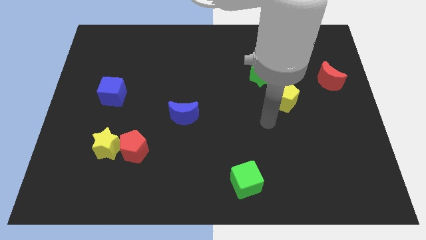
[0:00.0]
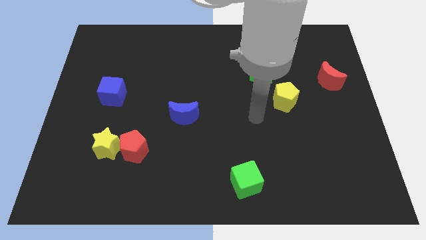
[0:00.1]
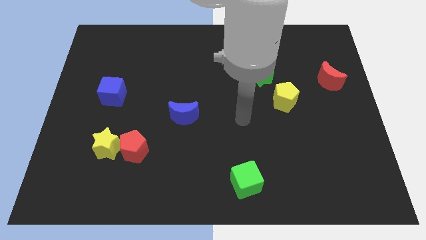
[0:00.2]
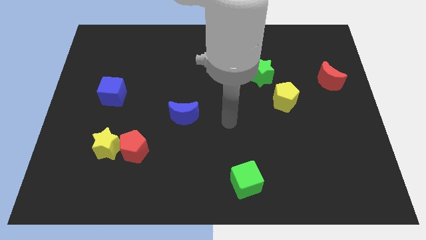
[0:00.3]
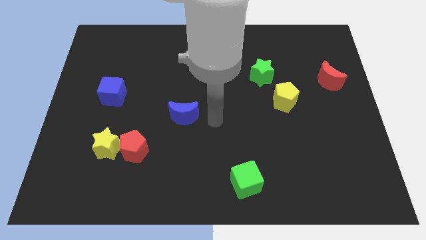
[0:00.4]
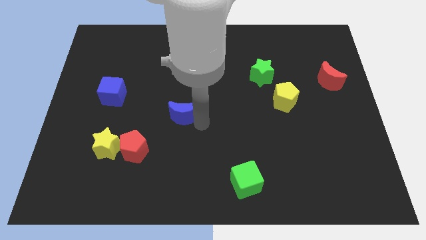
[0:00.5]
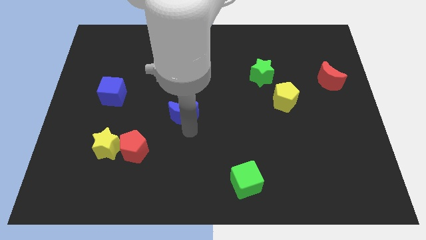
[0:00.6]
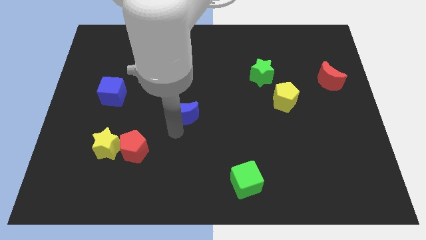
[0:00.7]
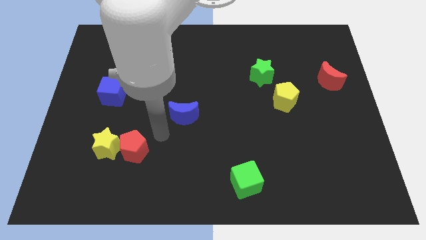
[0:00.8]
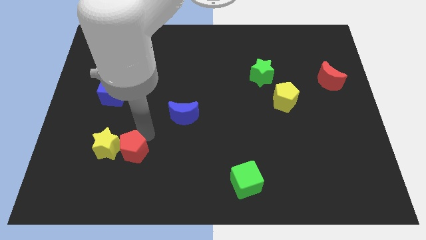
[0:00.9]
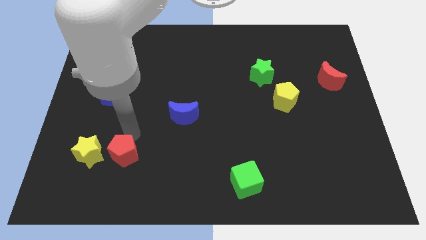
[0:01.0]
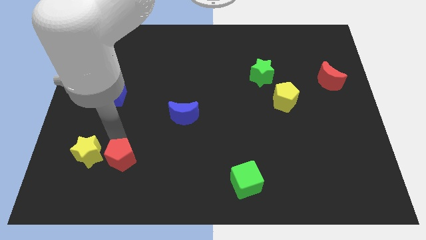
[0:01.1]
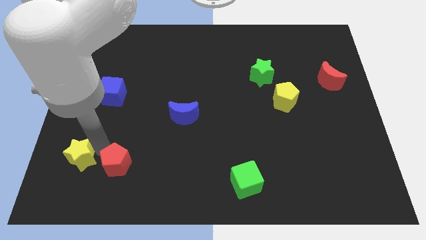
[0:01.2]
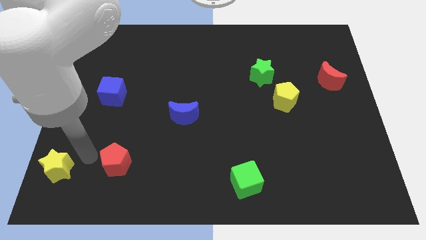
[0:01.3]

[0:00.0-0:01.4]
separate the red pentagon from the yellow star

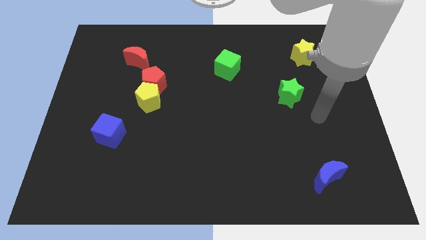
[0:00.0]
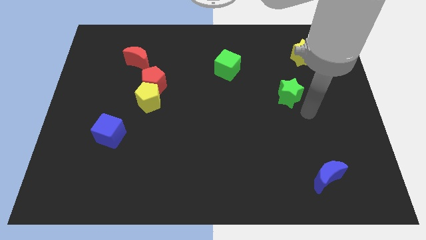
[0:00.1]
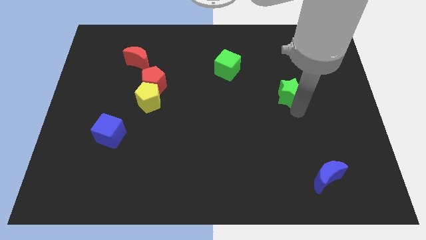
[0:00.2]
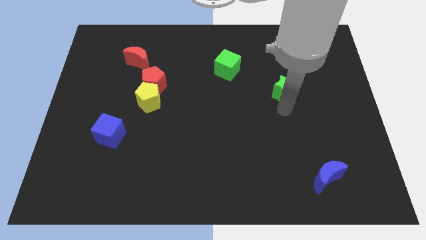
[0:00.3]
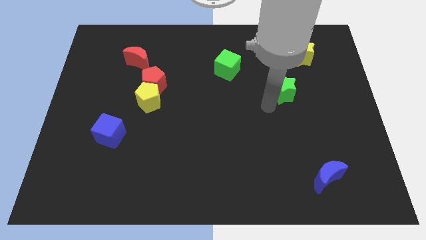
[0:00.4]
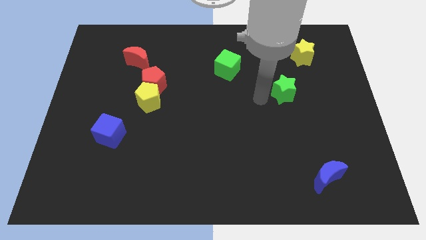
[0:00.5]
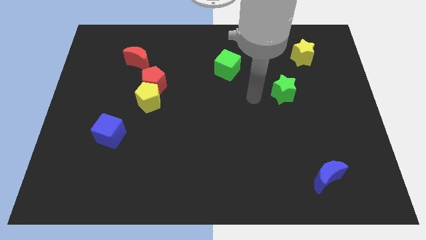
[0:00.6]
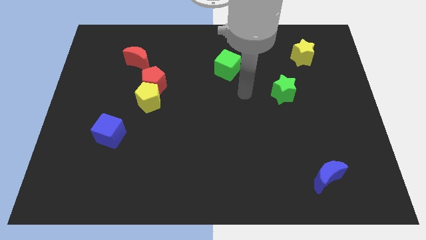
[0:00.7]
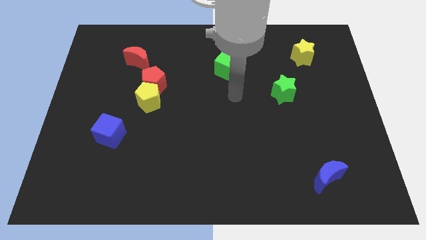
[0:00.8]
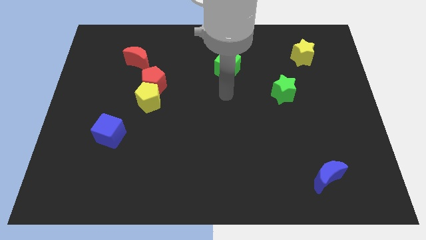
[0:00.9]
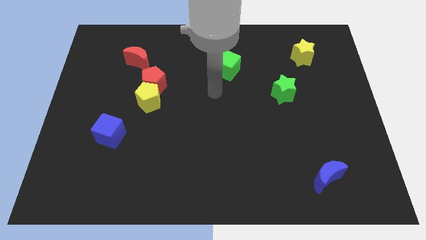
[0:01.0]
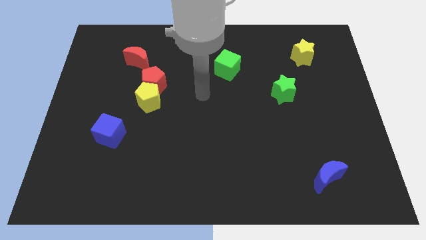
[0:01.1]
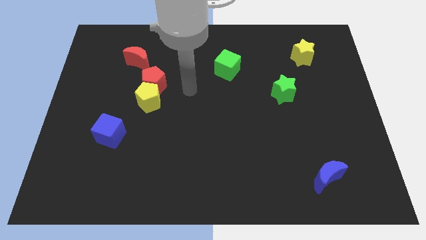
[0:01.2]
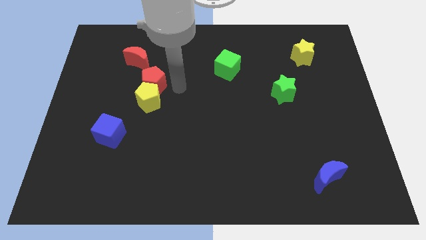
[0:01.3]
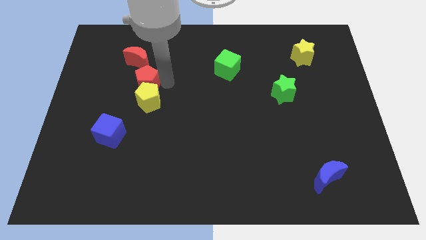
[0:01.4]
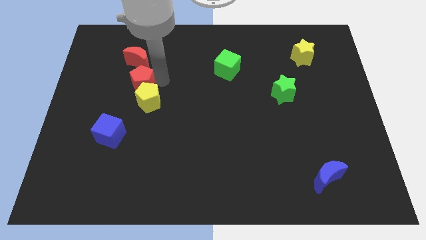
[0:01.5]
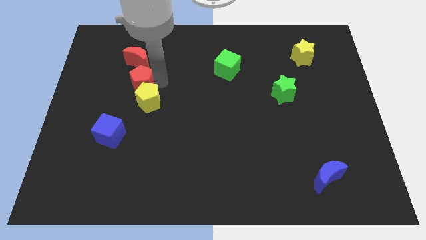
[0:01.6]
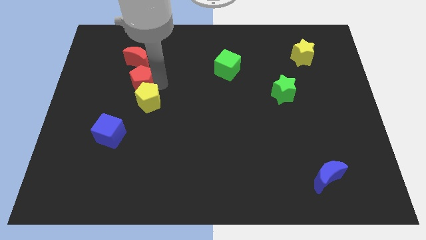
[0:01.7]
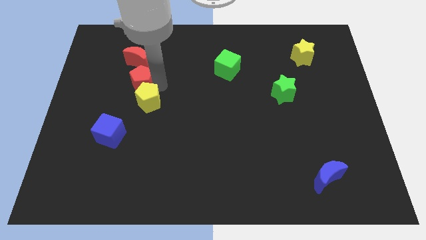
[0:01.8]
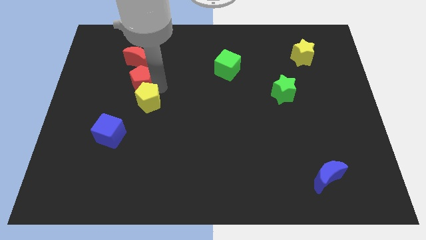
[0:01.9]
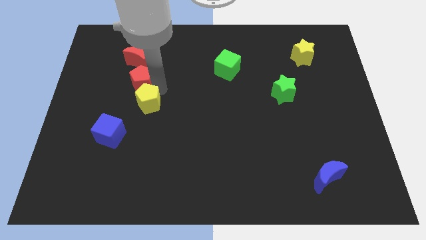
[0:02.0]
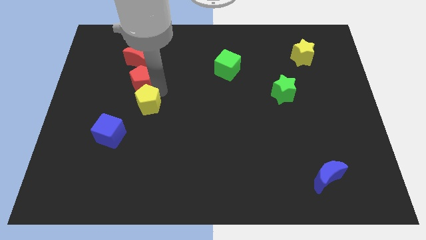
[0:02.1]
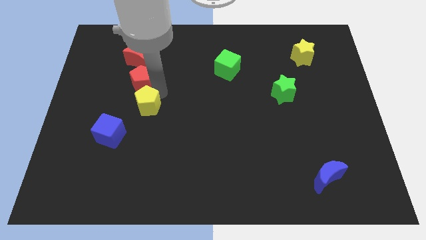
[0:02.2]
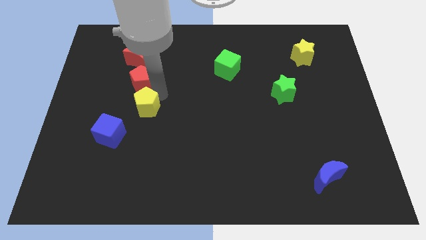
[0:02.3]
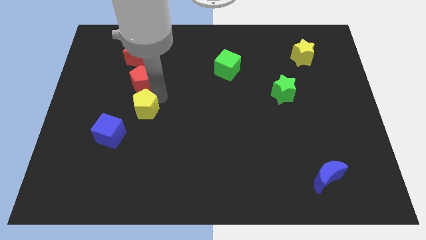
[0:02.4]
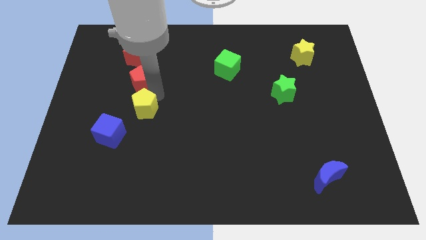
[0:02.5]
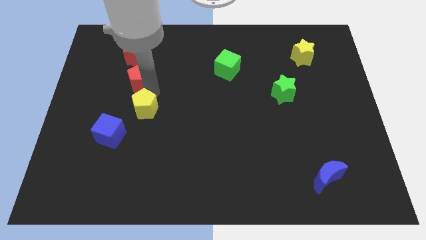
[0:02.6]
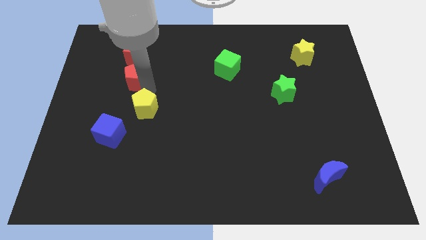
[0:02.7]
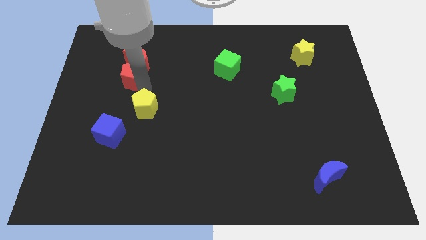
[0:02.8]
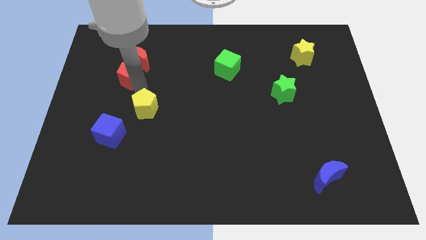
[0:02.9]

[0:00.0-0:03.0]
pull the yellow pentagon apart from the red pentagon

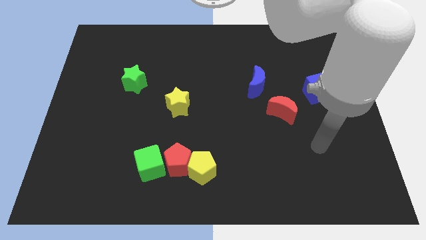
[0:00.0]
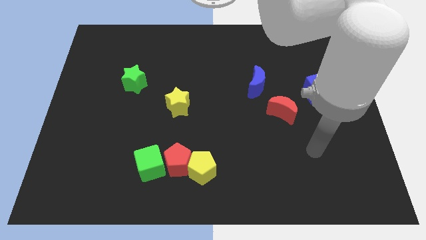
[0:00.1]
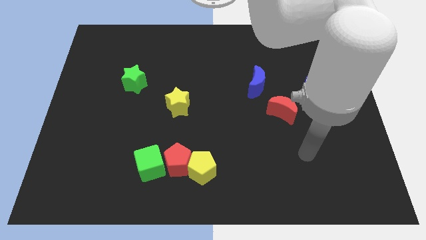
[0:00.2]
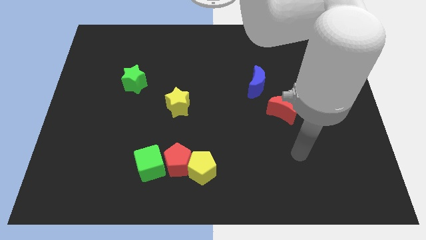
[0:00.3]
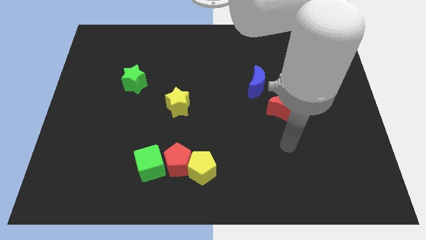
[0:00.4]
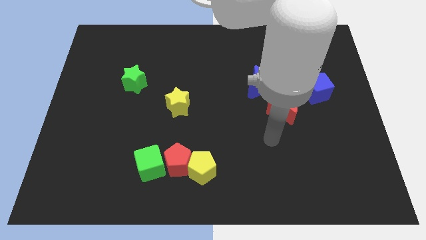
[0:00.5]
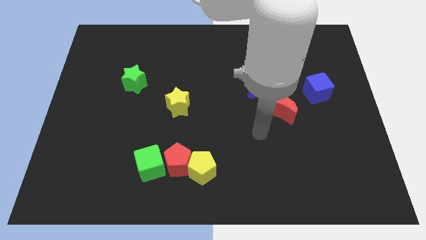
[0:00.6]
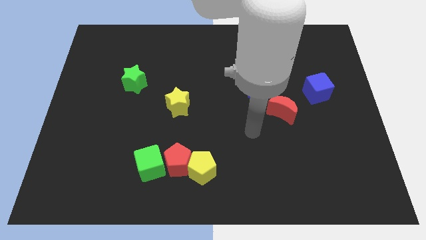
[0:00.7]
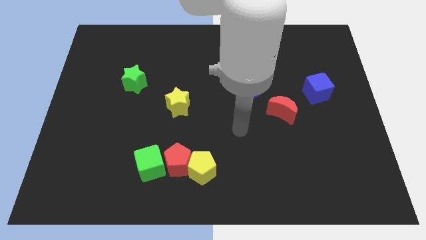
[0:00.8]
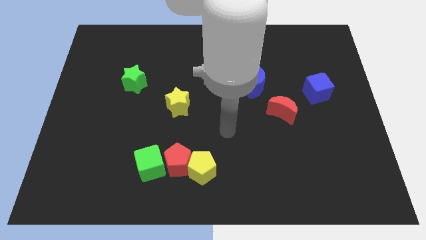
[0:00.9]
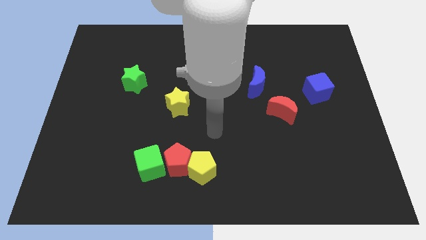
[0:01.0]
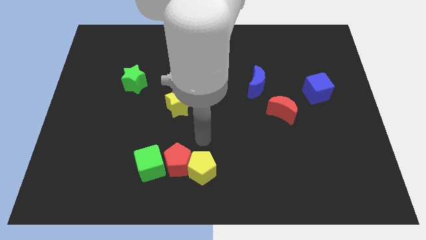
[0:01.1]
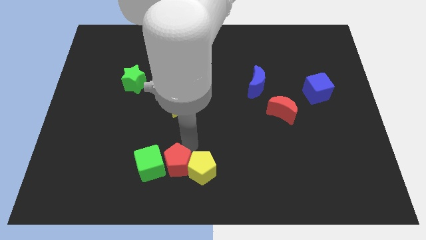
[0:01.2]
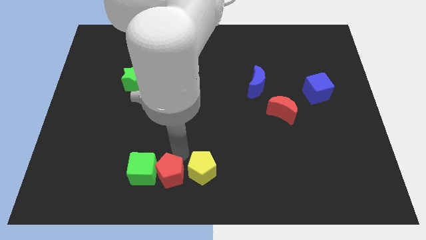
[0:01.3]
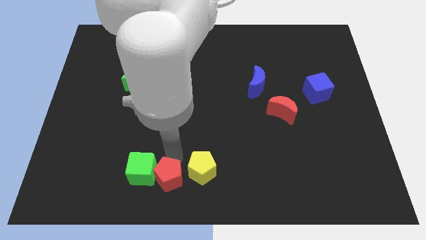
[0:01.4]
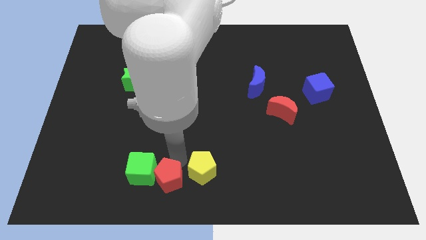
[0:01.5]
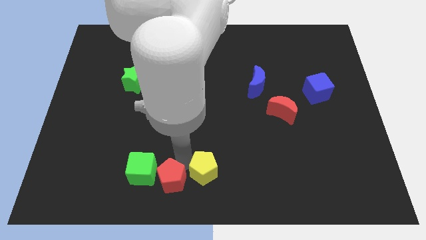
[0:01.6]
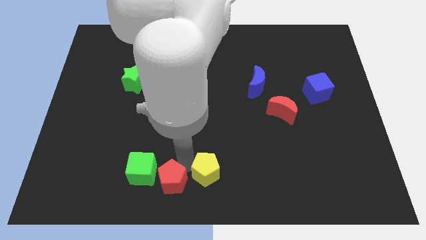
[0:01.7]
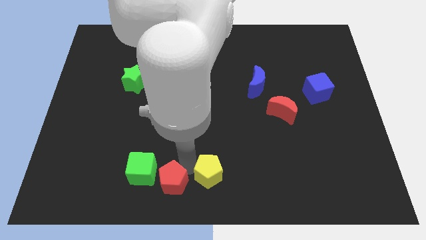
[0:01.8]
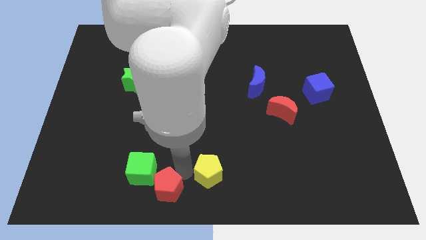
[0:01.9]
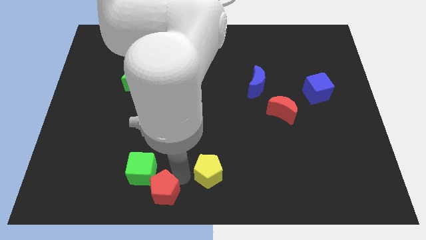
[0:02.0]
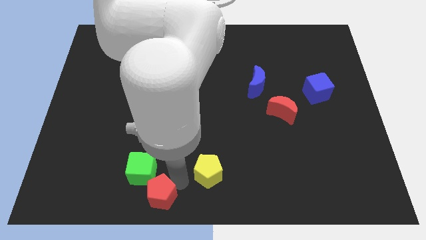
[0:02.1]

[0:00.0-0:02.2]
move the yellow pentagon away from the red pentagon

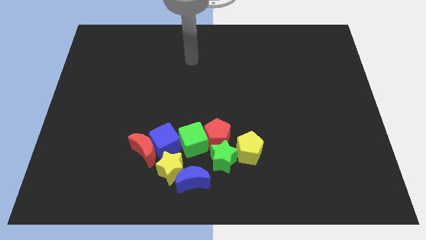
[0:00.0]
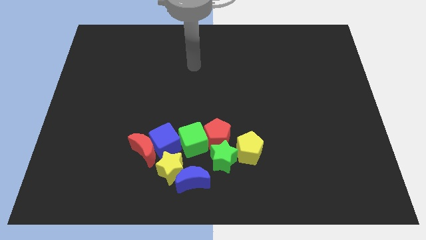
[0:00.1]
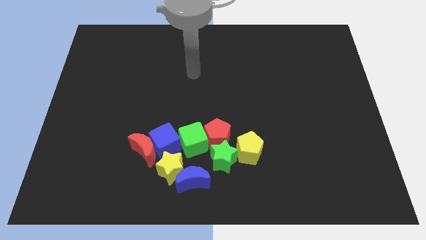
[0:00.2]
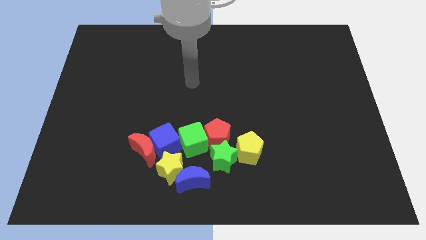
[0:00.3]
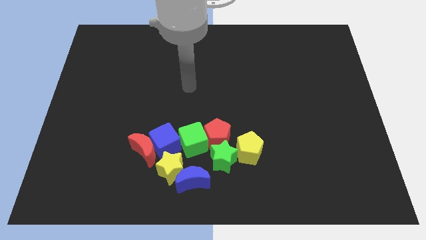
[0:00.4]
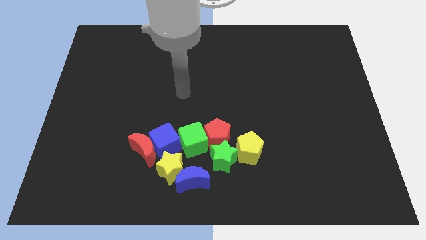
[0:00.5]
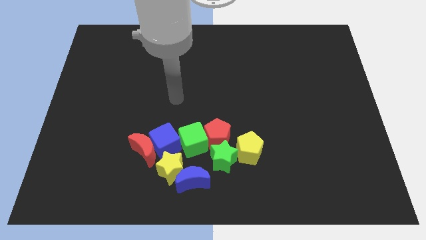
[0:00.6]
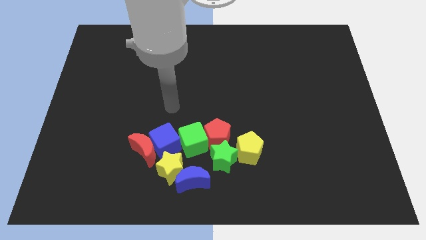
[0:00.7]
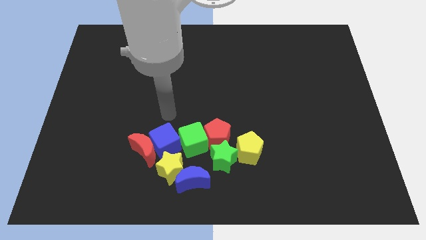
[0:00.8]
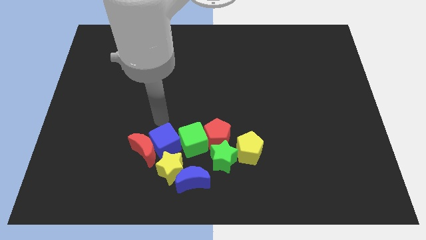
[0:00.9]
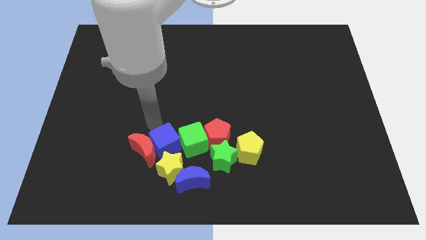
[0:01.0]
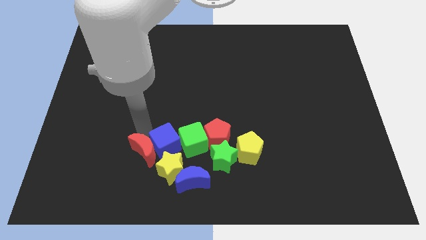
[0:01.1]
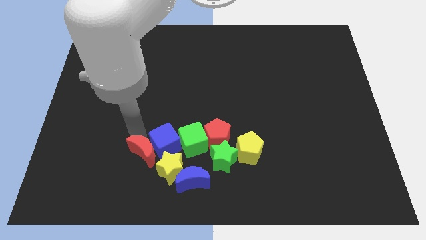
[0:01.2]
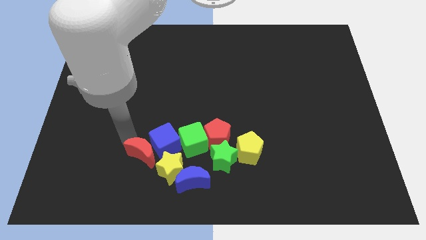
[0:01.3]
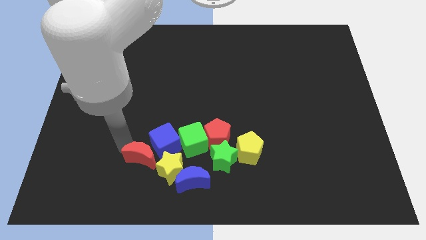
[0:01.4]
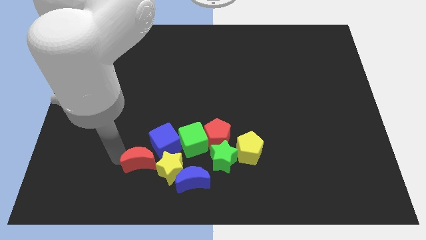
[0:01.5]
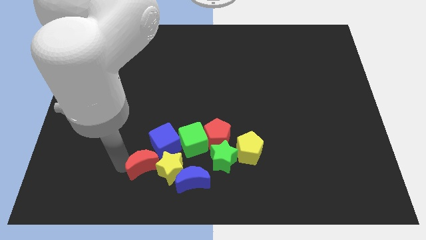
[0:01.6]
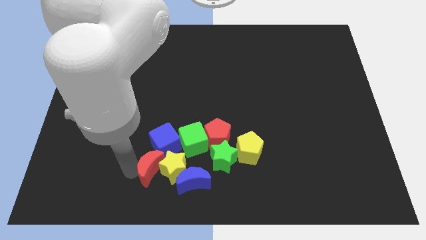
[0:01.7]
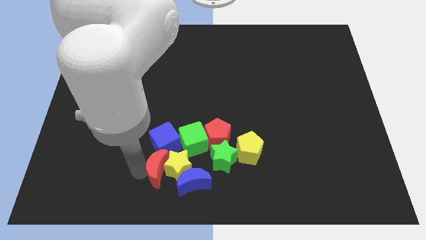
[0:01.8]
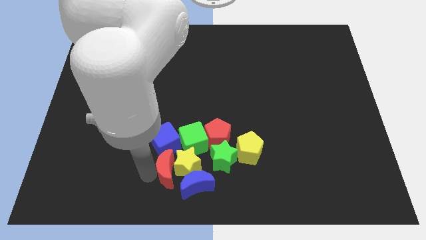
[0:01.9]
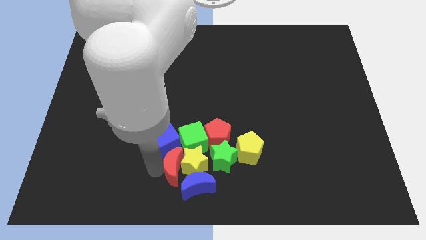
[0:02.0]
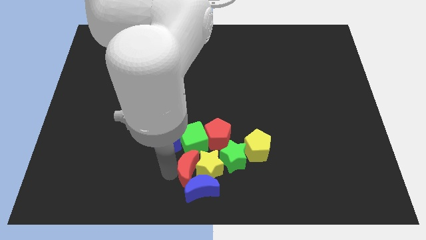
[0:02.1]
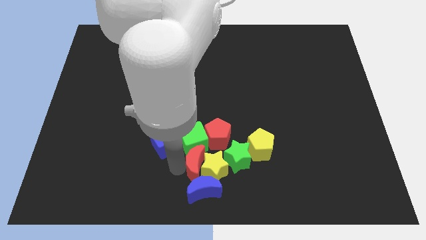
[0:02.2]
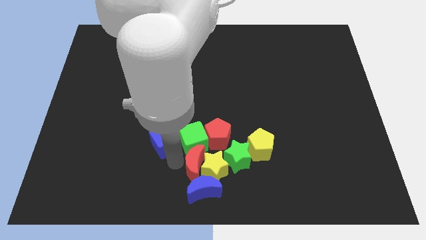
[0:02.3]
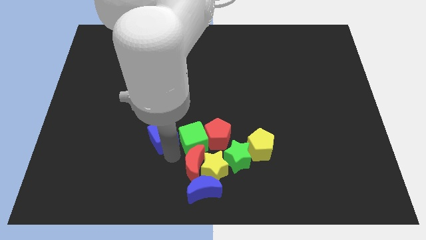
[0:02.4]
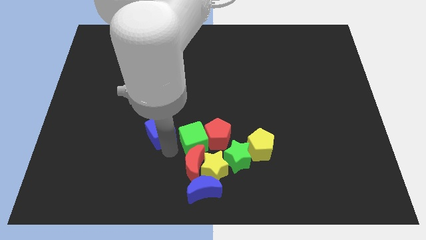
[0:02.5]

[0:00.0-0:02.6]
pull the blue cube apart from the group
